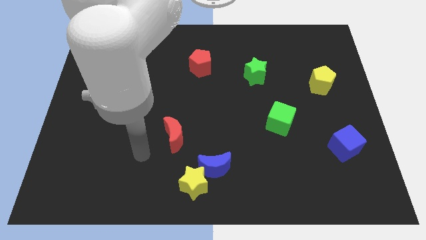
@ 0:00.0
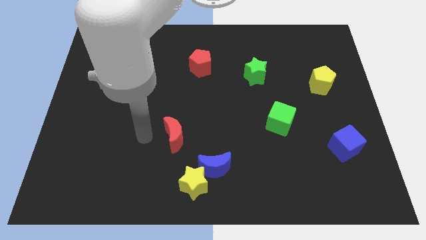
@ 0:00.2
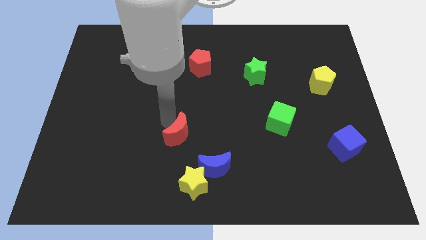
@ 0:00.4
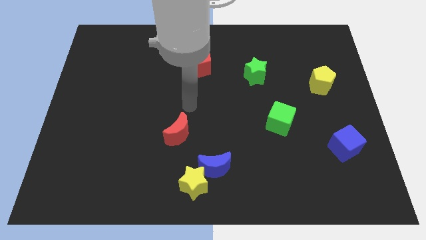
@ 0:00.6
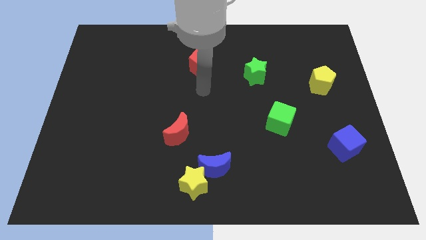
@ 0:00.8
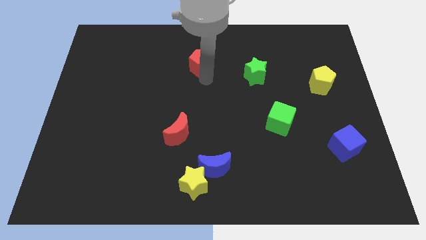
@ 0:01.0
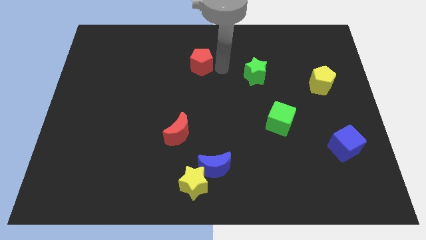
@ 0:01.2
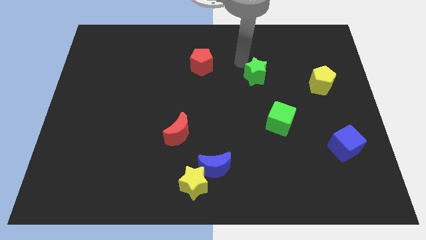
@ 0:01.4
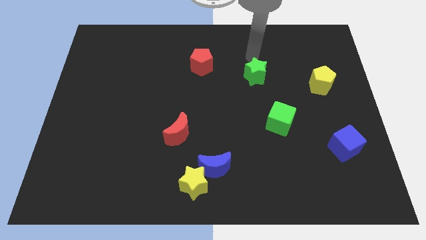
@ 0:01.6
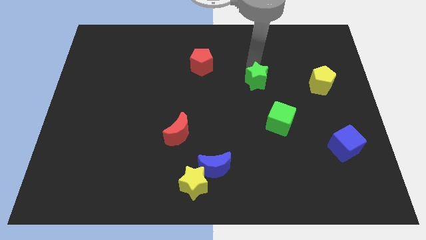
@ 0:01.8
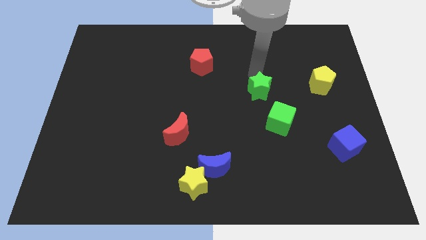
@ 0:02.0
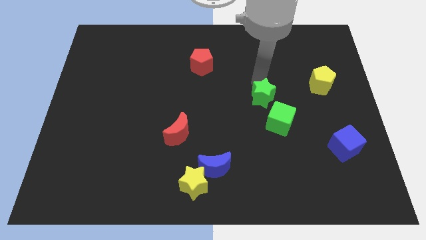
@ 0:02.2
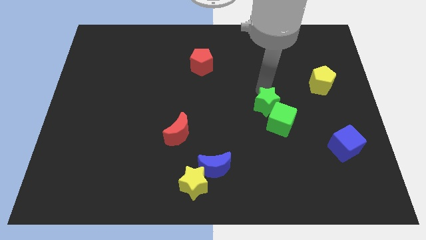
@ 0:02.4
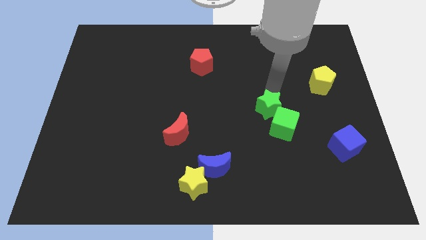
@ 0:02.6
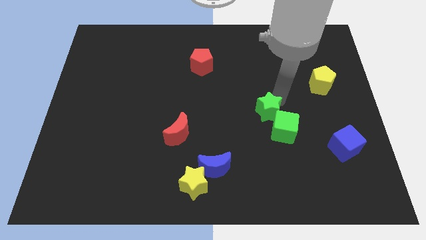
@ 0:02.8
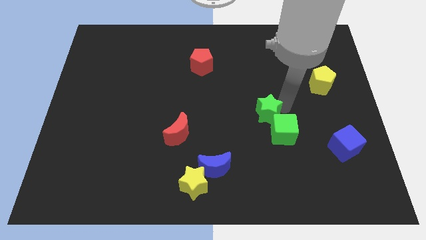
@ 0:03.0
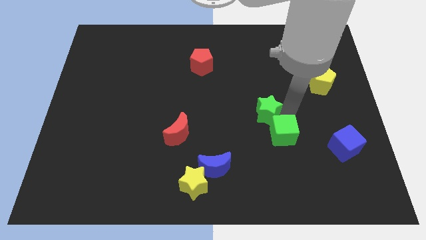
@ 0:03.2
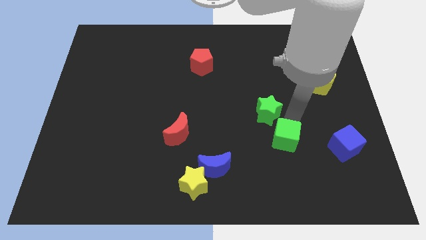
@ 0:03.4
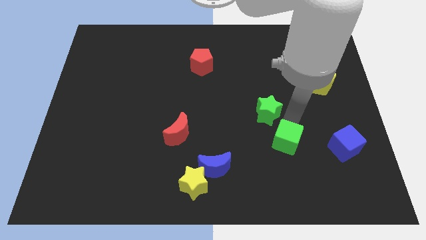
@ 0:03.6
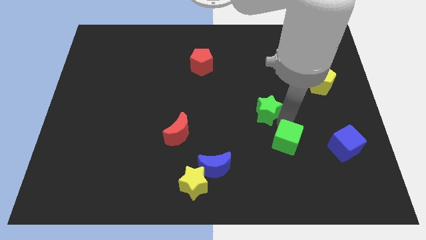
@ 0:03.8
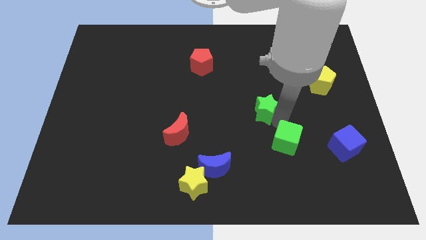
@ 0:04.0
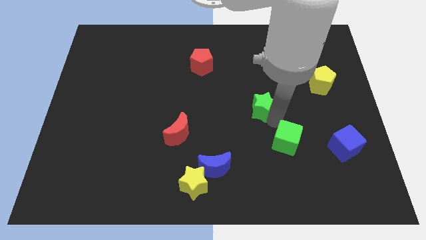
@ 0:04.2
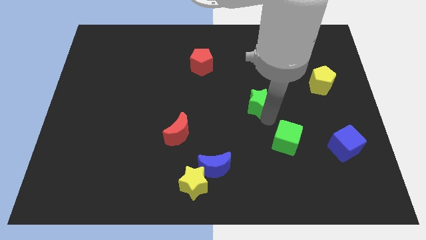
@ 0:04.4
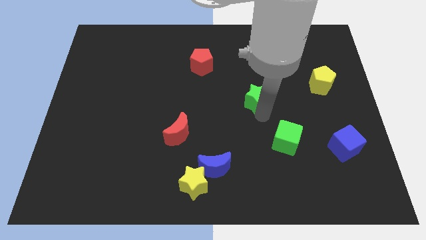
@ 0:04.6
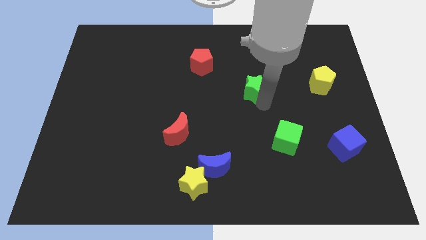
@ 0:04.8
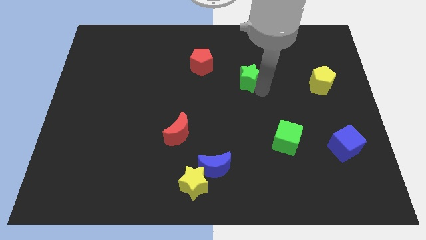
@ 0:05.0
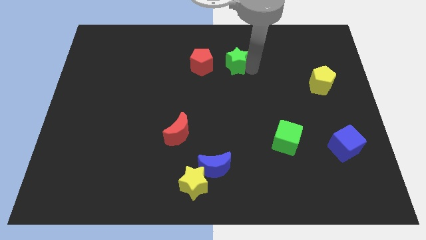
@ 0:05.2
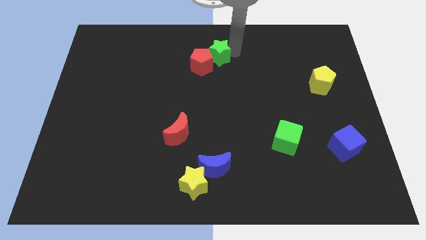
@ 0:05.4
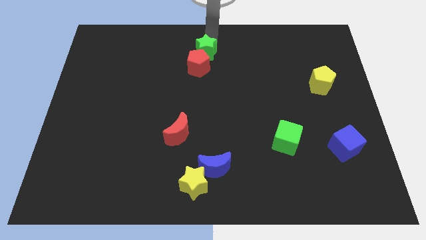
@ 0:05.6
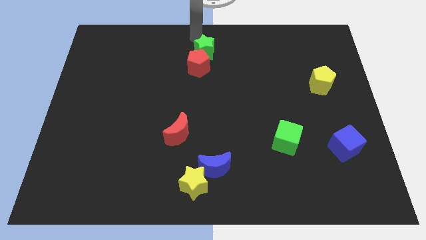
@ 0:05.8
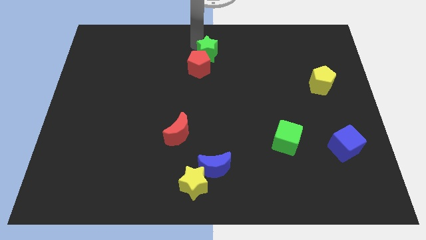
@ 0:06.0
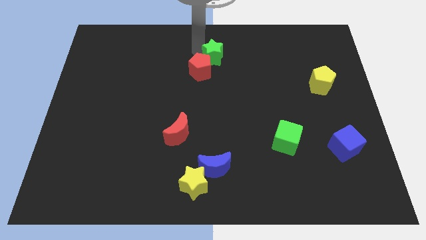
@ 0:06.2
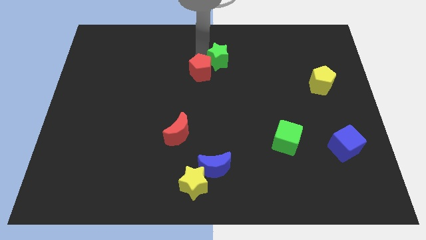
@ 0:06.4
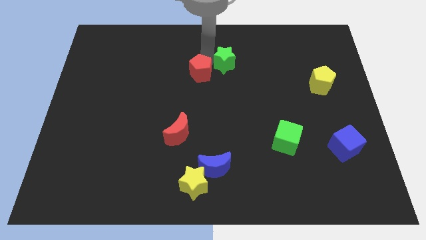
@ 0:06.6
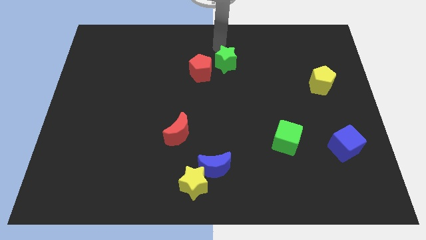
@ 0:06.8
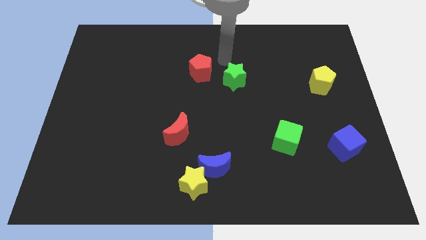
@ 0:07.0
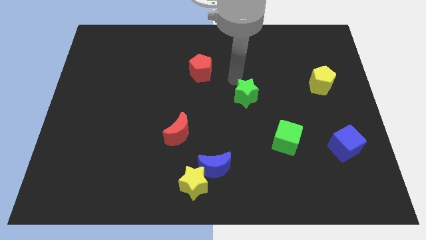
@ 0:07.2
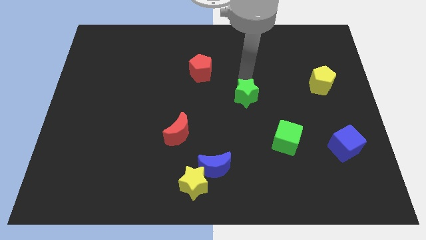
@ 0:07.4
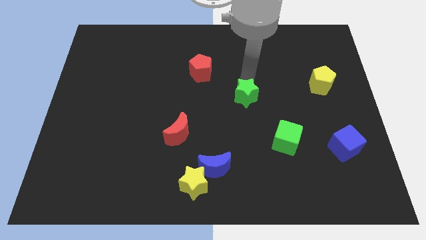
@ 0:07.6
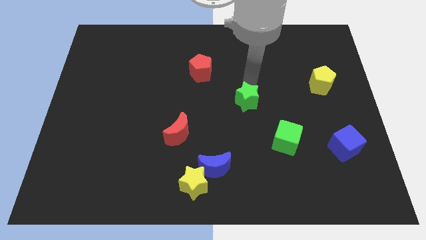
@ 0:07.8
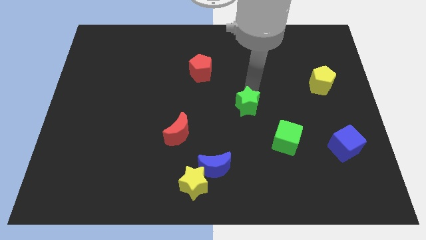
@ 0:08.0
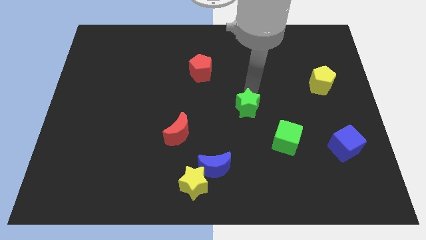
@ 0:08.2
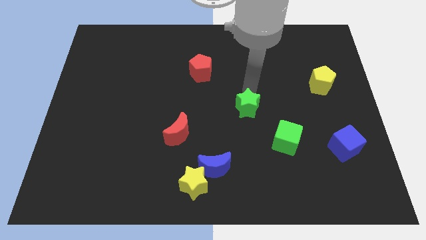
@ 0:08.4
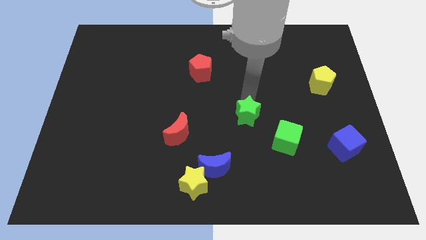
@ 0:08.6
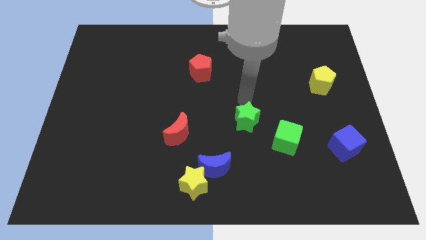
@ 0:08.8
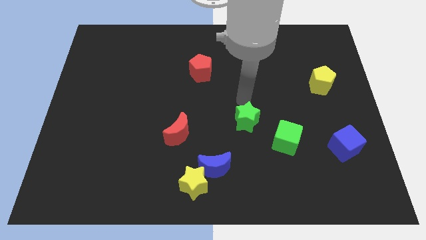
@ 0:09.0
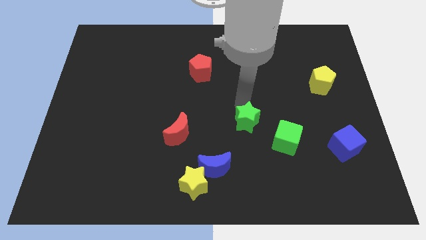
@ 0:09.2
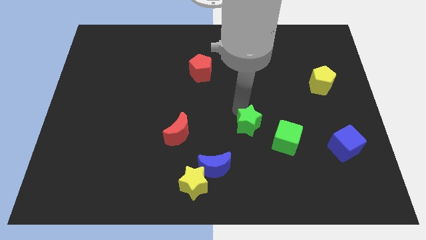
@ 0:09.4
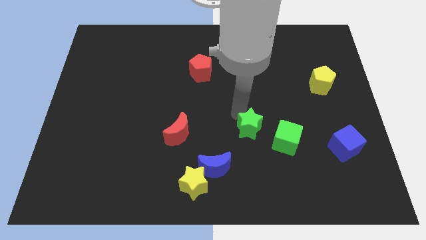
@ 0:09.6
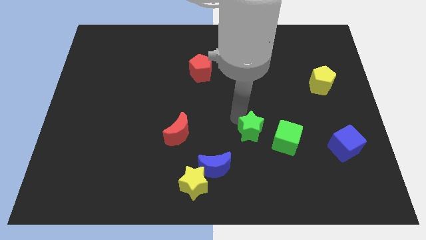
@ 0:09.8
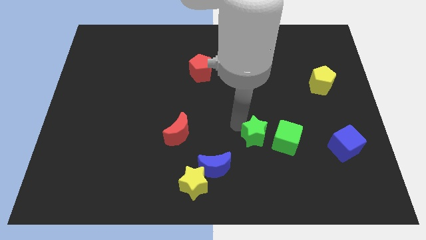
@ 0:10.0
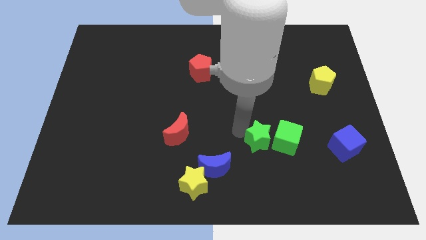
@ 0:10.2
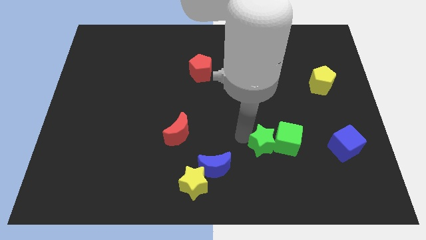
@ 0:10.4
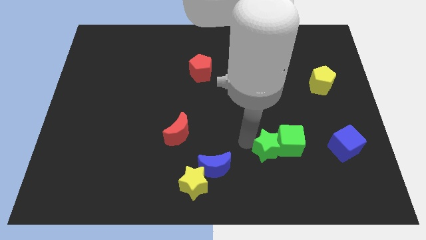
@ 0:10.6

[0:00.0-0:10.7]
push the green star to the right of the blue moon

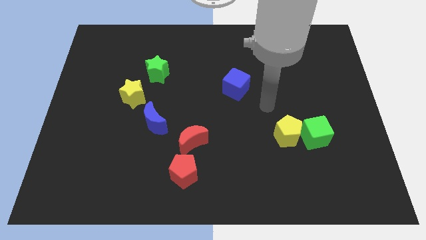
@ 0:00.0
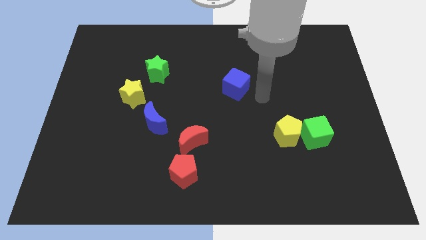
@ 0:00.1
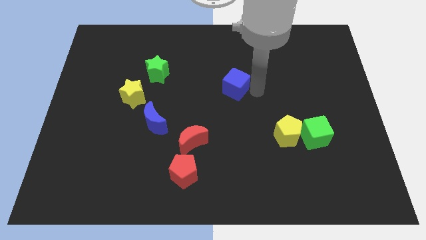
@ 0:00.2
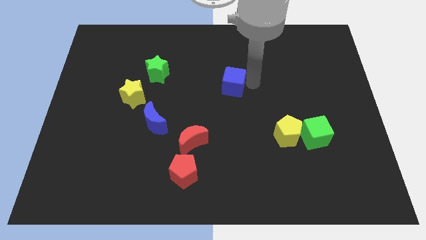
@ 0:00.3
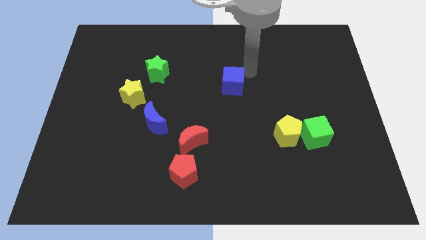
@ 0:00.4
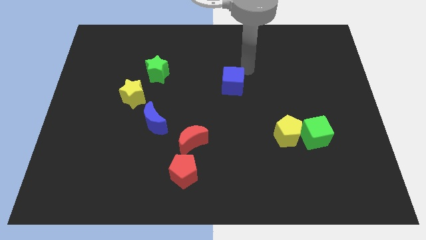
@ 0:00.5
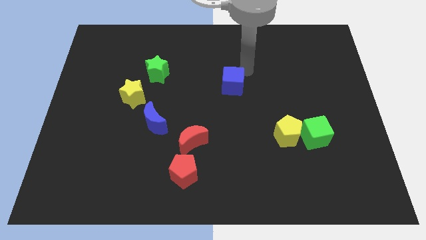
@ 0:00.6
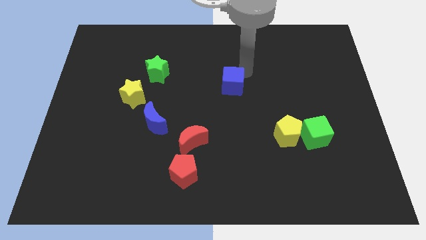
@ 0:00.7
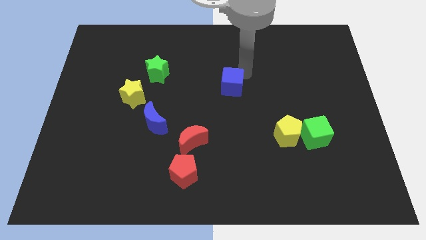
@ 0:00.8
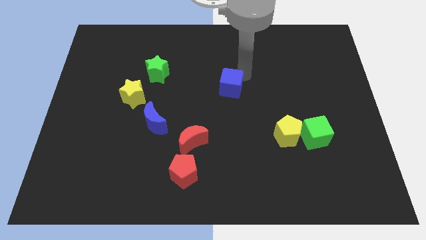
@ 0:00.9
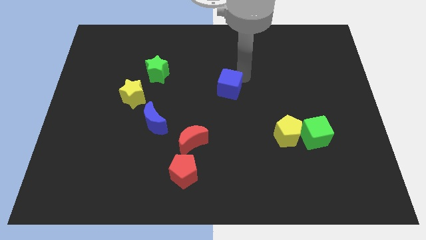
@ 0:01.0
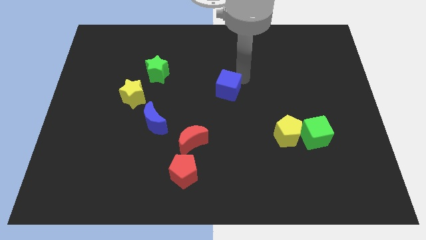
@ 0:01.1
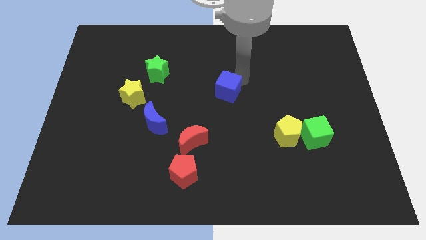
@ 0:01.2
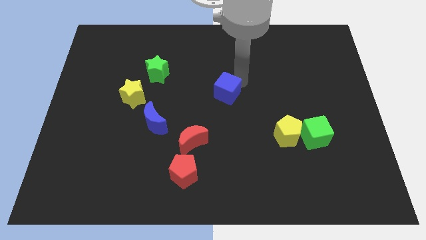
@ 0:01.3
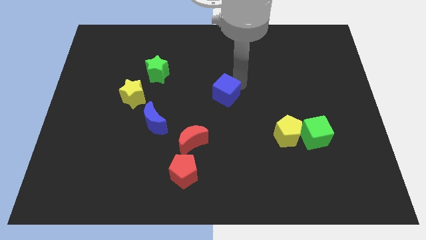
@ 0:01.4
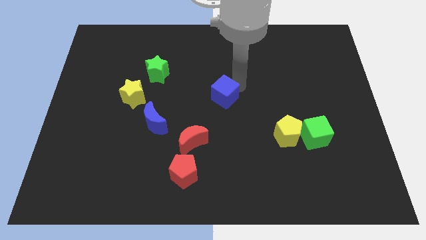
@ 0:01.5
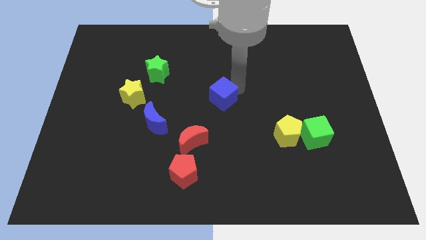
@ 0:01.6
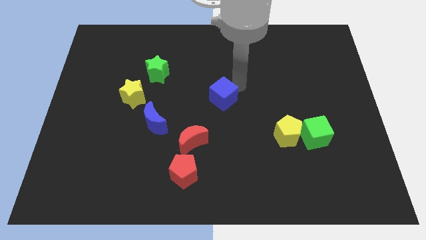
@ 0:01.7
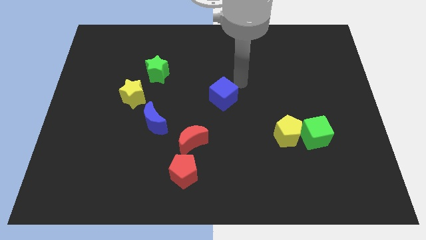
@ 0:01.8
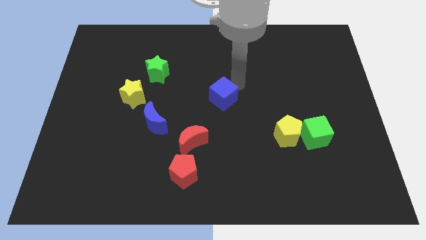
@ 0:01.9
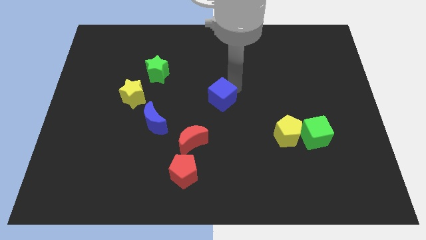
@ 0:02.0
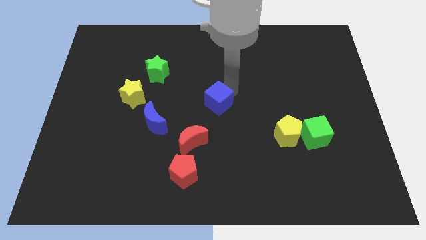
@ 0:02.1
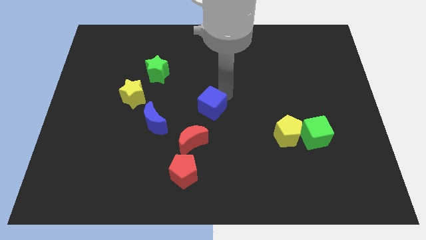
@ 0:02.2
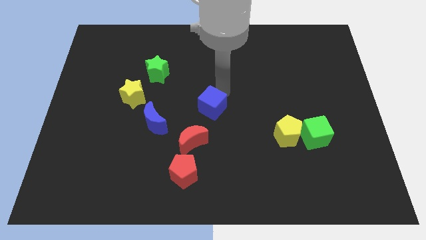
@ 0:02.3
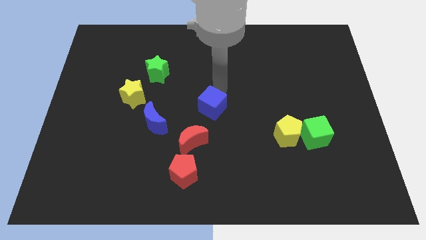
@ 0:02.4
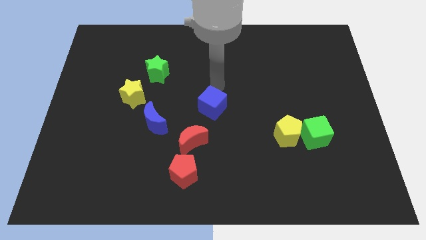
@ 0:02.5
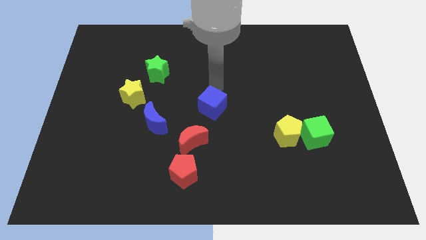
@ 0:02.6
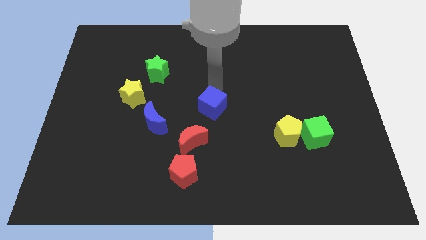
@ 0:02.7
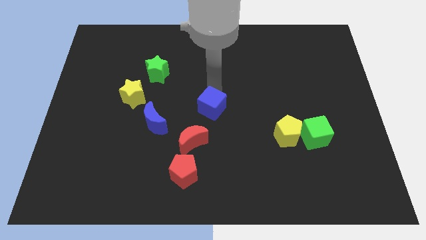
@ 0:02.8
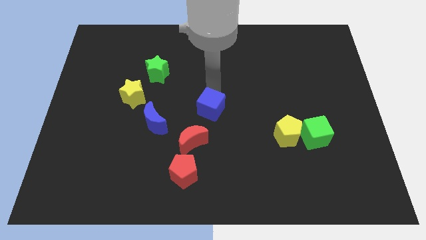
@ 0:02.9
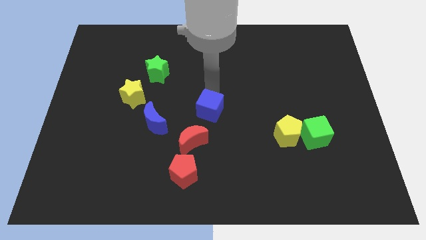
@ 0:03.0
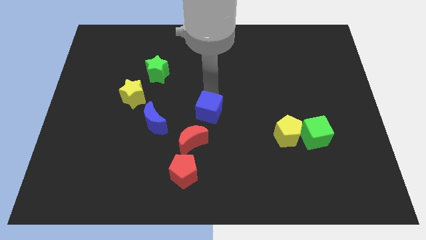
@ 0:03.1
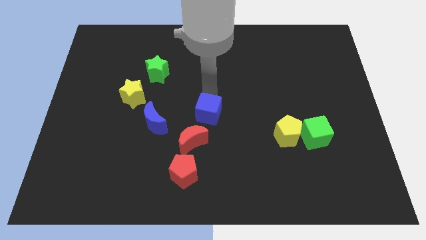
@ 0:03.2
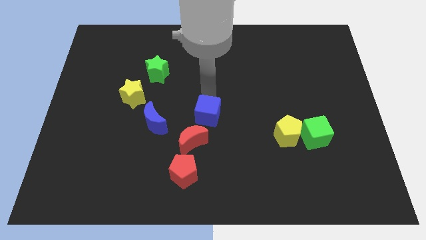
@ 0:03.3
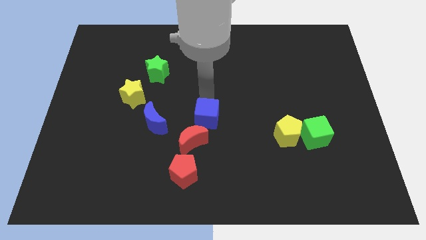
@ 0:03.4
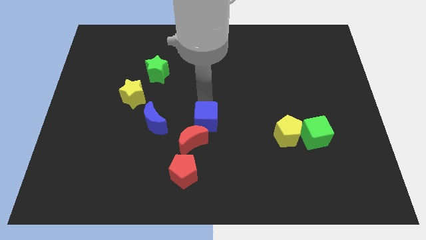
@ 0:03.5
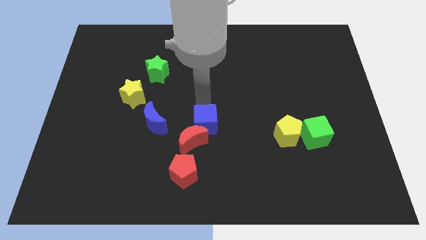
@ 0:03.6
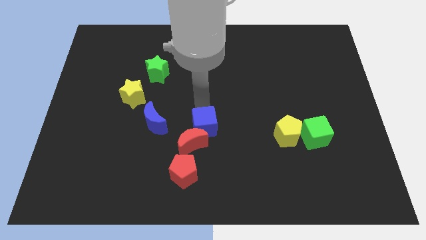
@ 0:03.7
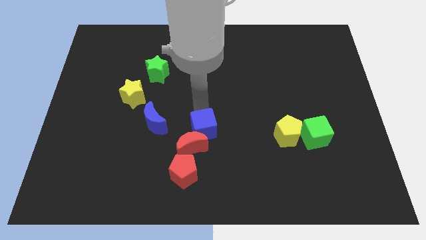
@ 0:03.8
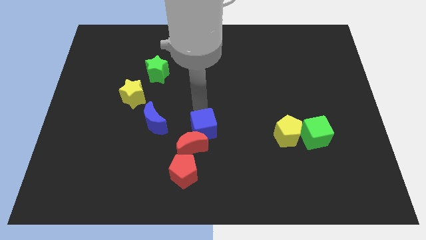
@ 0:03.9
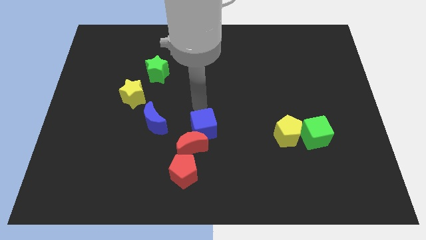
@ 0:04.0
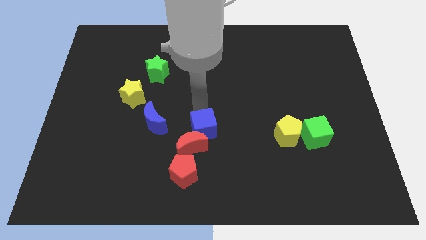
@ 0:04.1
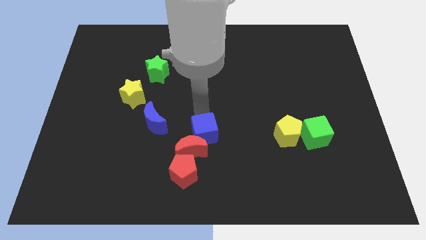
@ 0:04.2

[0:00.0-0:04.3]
move the blue cube to the top right of the red pentagon
